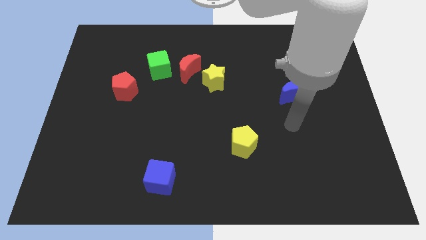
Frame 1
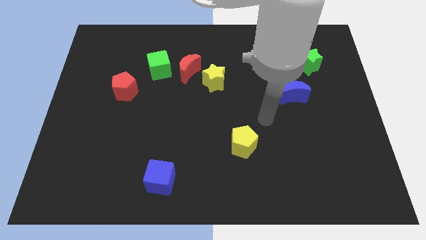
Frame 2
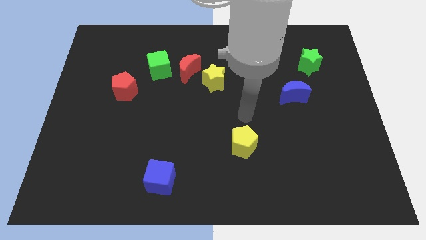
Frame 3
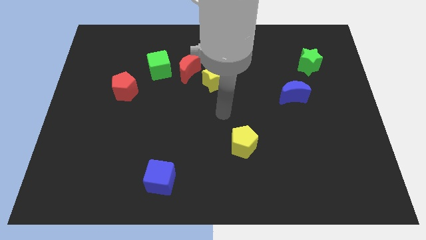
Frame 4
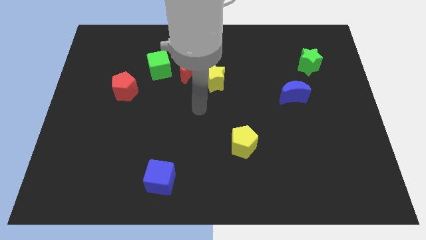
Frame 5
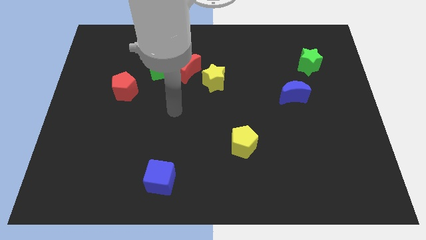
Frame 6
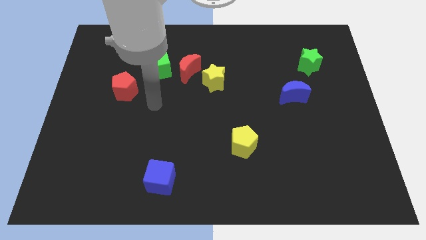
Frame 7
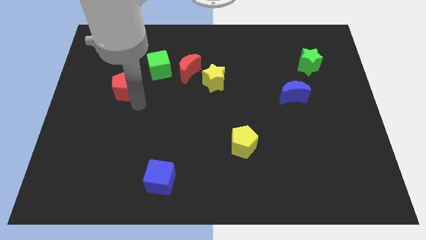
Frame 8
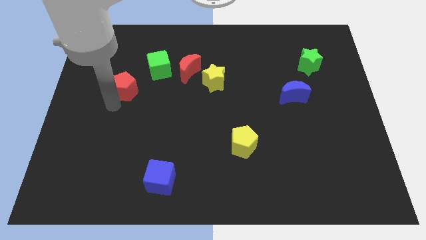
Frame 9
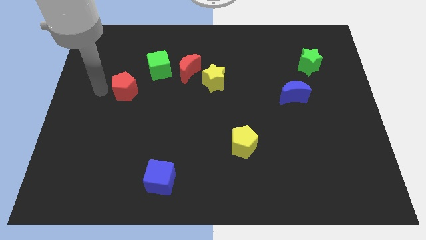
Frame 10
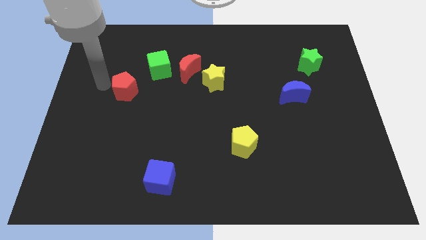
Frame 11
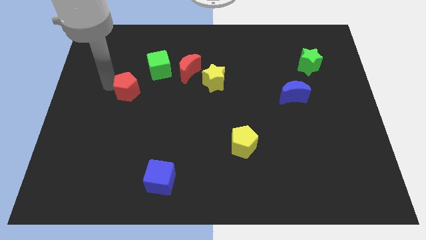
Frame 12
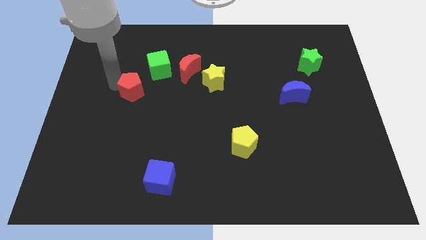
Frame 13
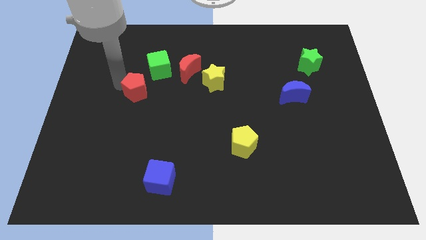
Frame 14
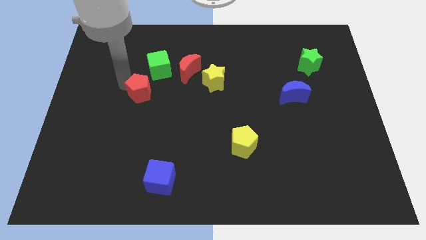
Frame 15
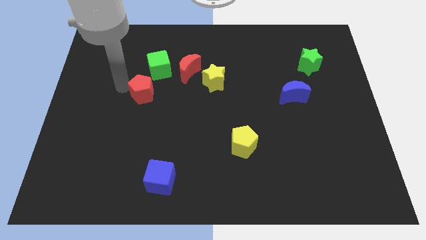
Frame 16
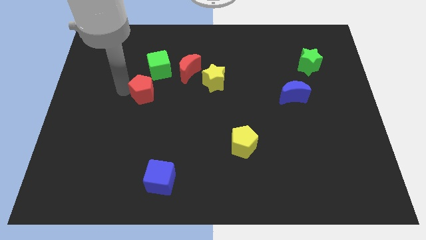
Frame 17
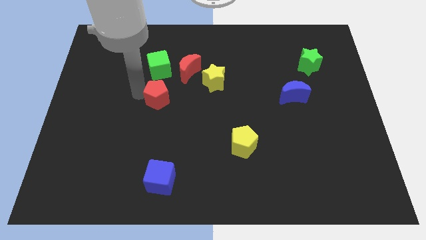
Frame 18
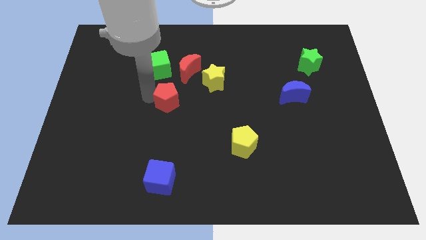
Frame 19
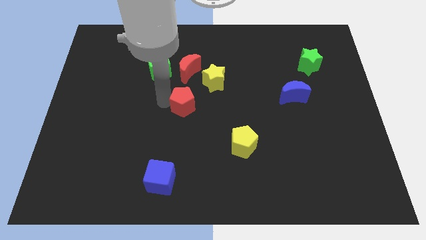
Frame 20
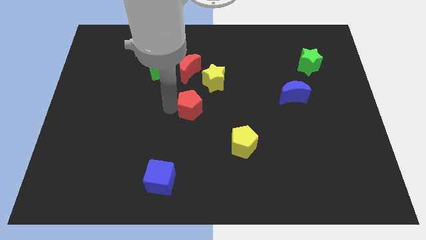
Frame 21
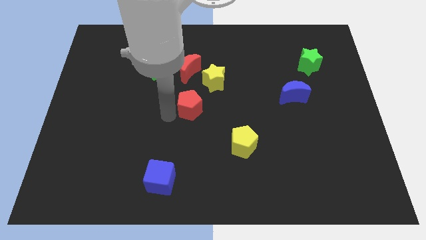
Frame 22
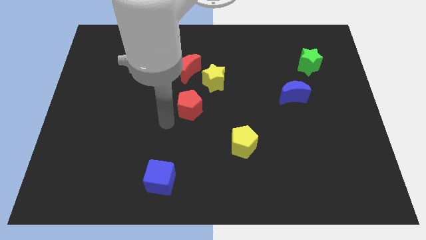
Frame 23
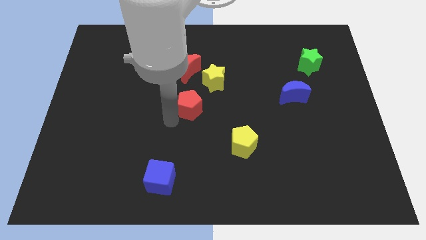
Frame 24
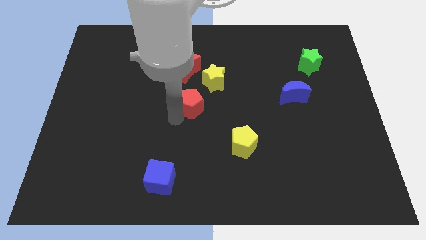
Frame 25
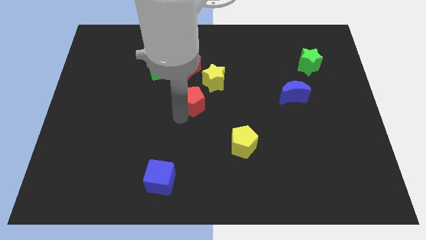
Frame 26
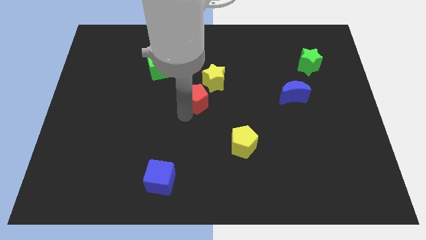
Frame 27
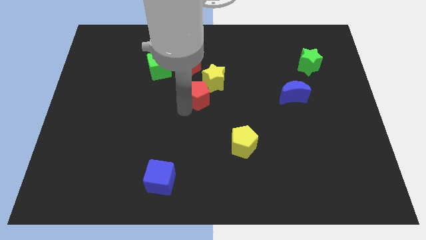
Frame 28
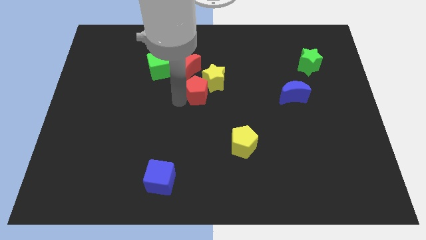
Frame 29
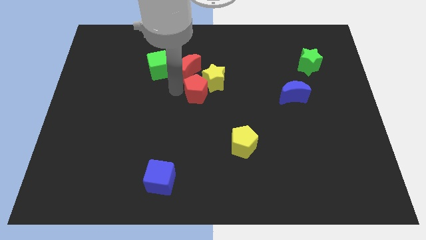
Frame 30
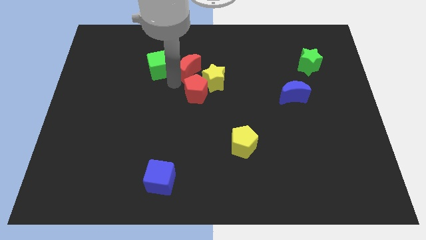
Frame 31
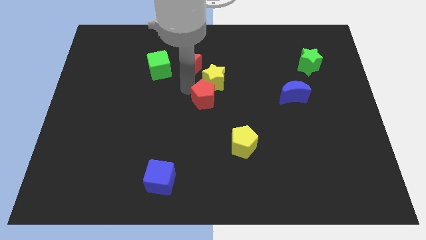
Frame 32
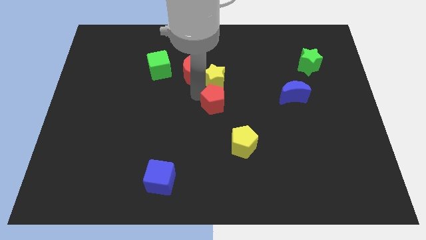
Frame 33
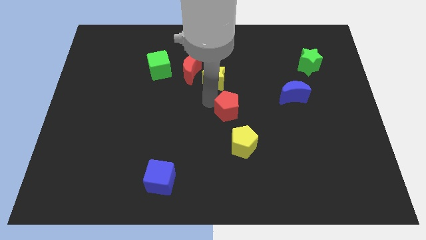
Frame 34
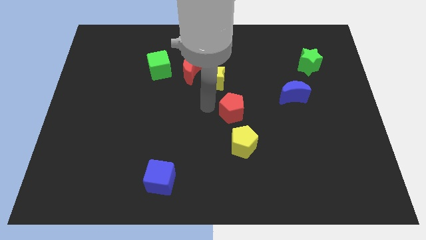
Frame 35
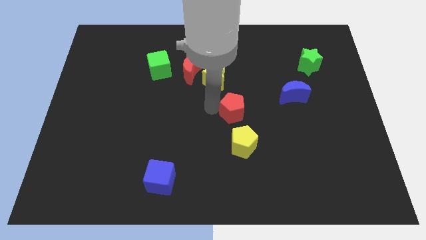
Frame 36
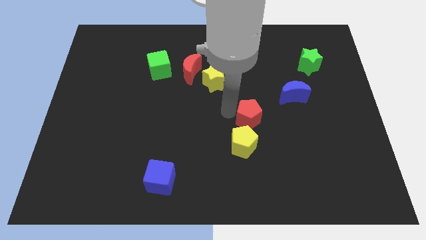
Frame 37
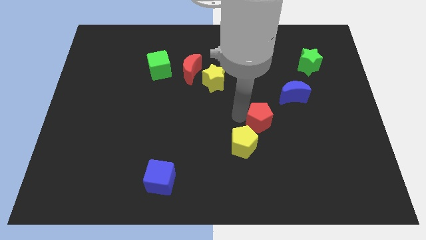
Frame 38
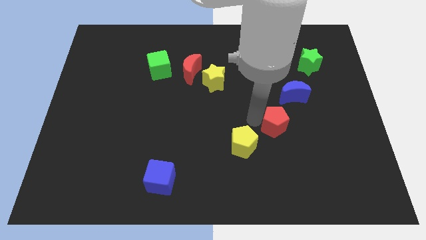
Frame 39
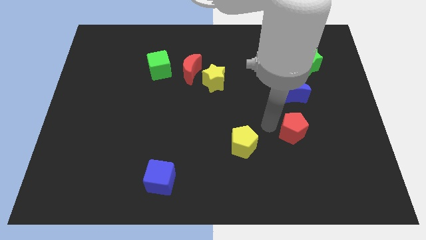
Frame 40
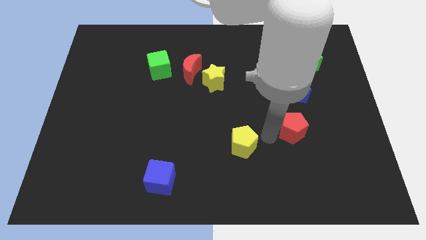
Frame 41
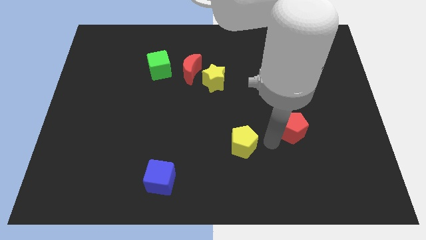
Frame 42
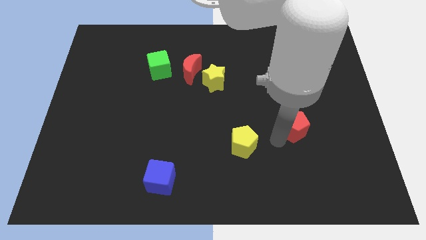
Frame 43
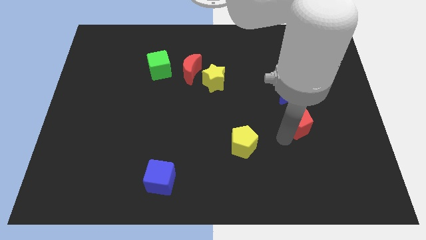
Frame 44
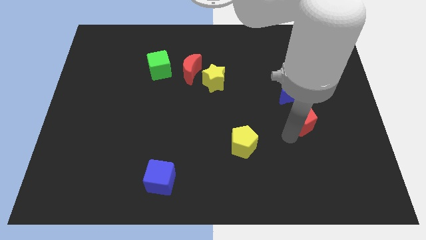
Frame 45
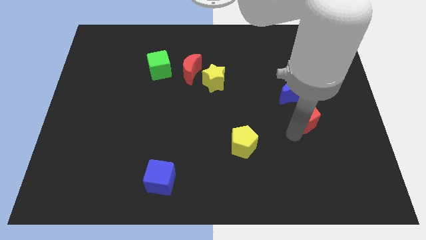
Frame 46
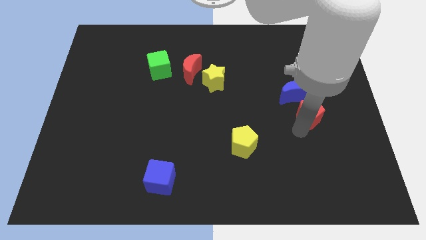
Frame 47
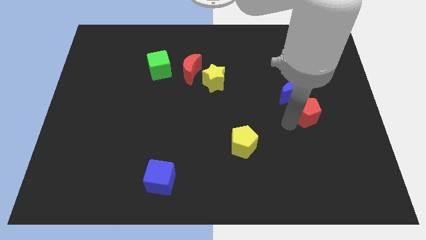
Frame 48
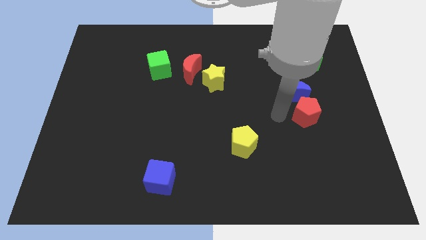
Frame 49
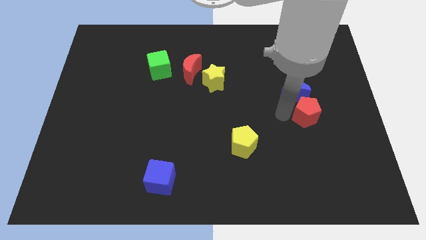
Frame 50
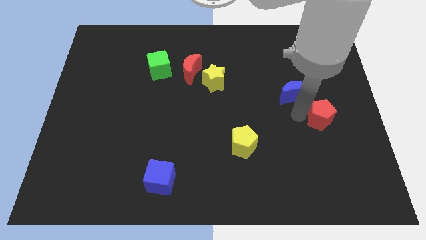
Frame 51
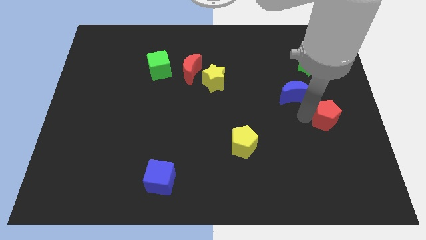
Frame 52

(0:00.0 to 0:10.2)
put the red pentagon to the right side

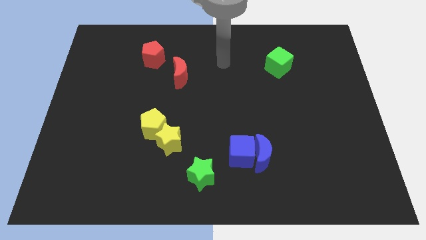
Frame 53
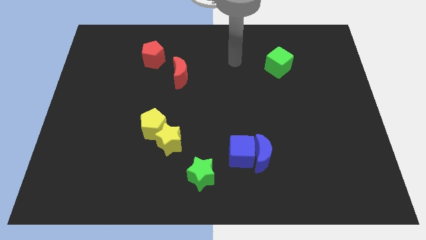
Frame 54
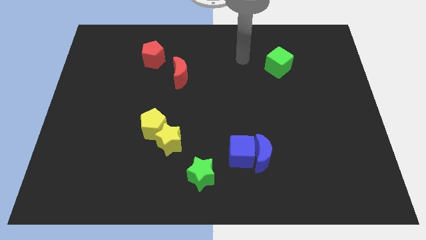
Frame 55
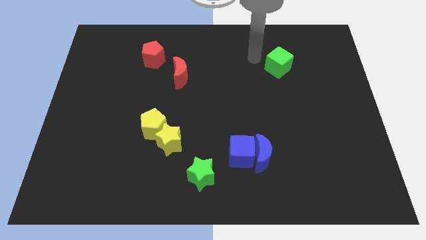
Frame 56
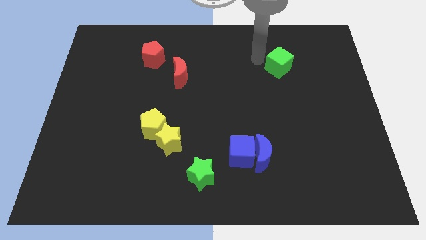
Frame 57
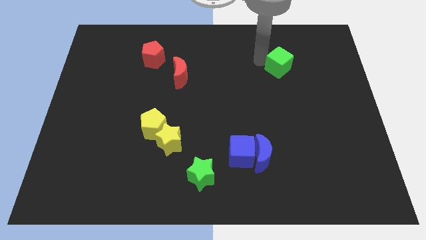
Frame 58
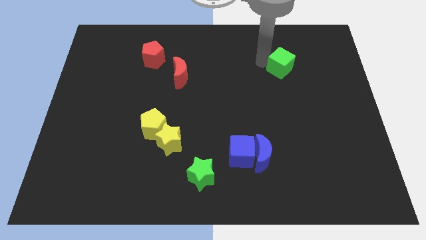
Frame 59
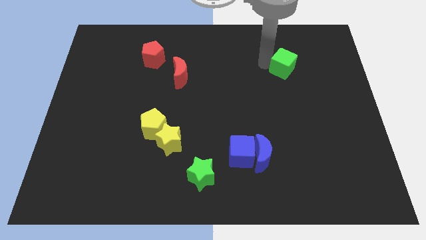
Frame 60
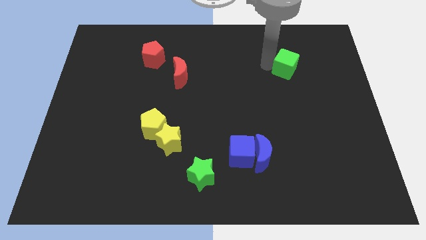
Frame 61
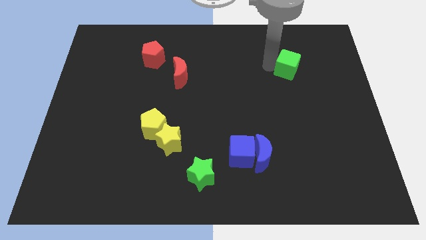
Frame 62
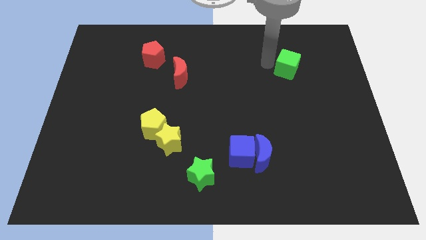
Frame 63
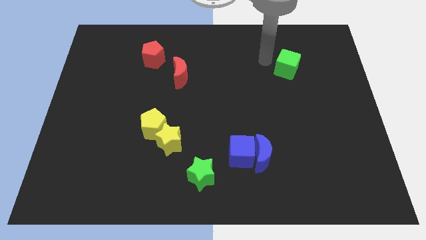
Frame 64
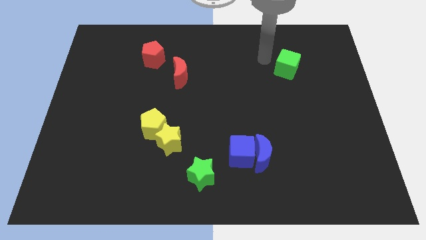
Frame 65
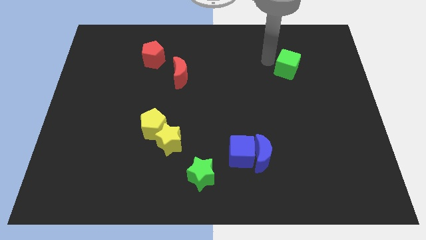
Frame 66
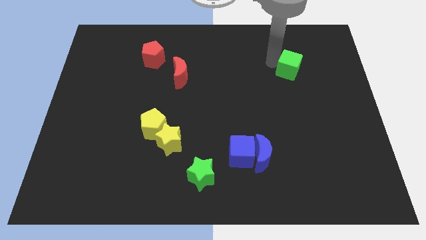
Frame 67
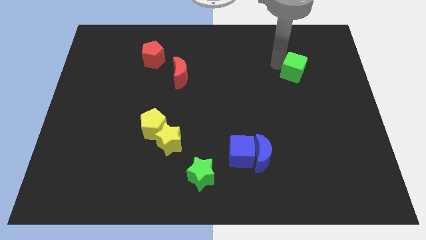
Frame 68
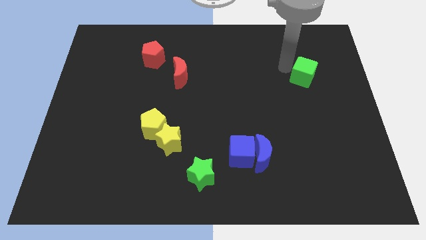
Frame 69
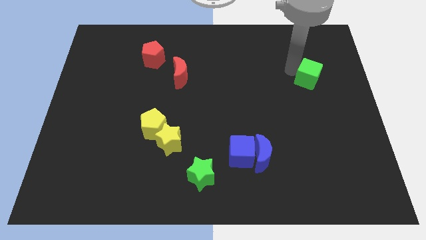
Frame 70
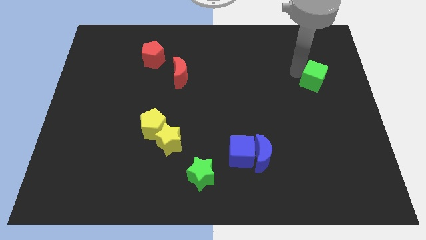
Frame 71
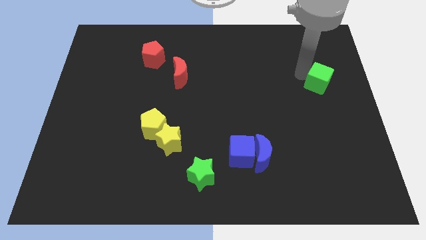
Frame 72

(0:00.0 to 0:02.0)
move the green cube to the center right
